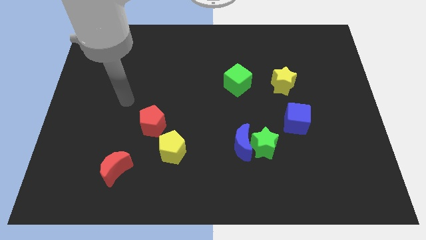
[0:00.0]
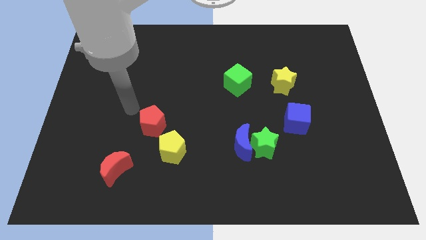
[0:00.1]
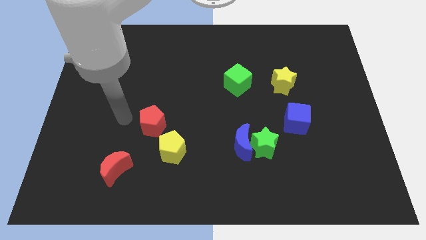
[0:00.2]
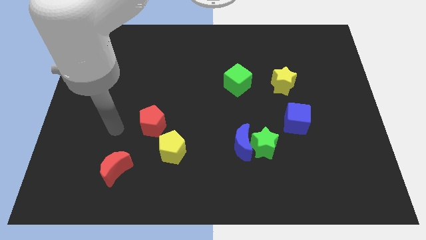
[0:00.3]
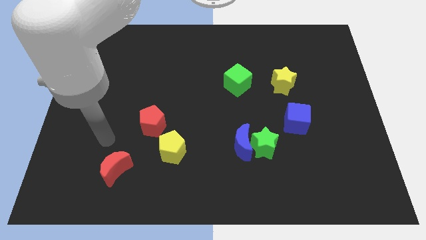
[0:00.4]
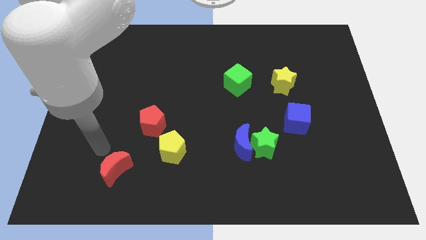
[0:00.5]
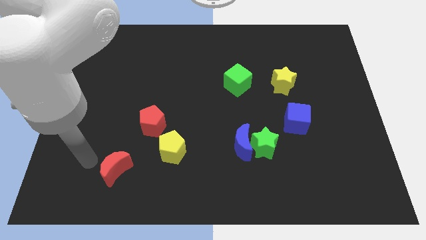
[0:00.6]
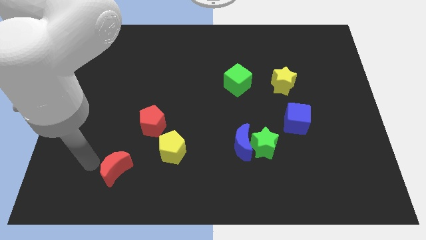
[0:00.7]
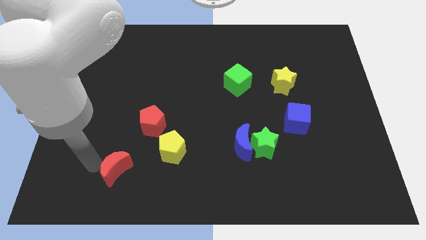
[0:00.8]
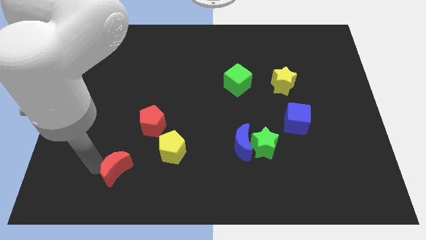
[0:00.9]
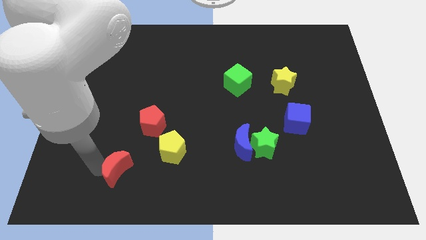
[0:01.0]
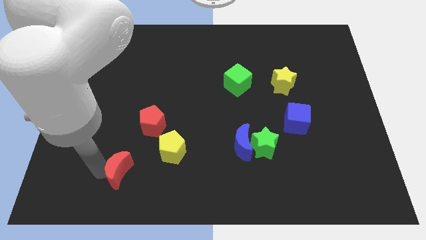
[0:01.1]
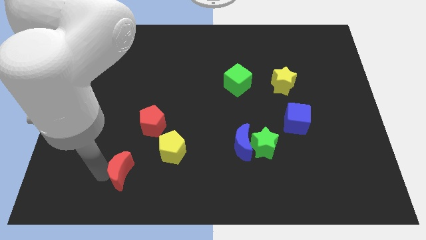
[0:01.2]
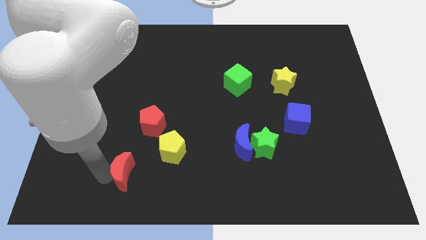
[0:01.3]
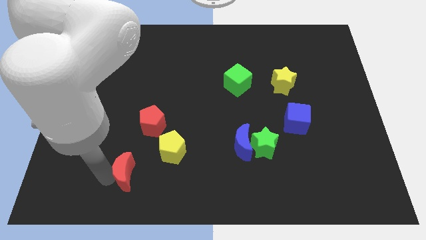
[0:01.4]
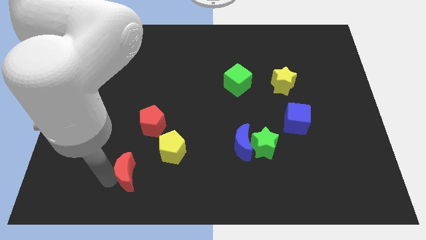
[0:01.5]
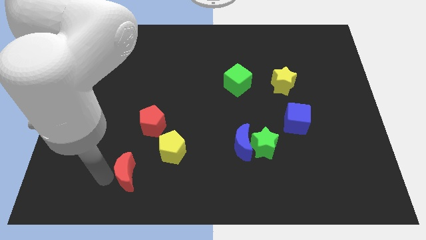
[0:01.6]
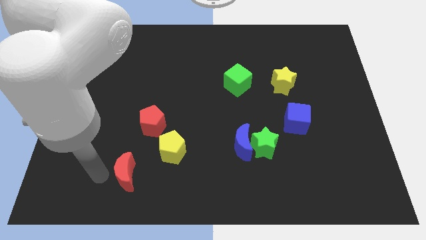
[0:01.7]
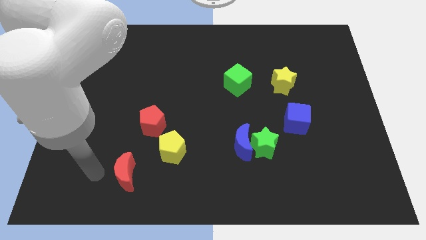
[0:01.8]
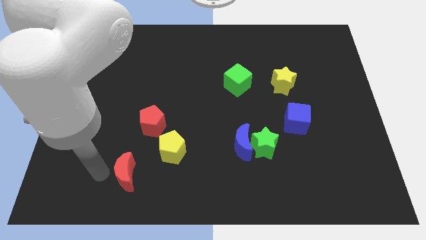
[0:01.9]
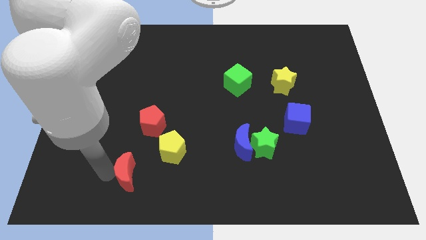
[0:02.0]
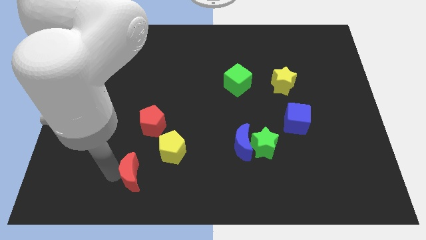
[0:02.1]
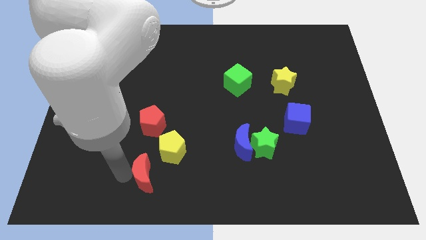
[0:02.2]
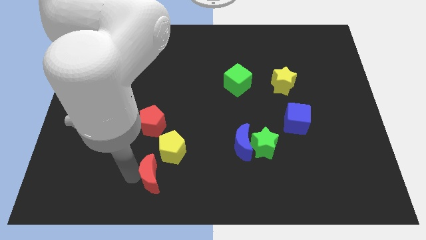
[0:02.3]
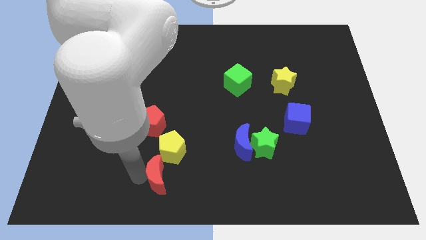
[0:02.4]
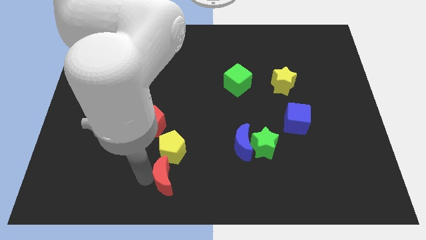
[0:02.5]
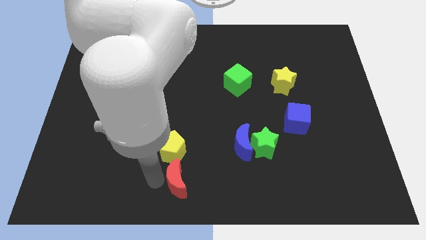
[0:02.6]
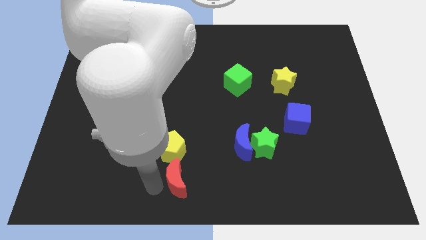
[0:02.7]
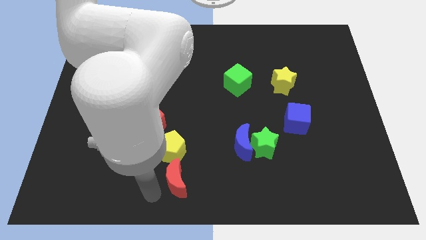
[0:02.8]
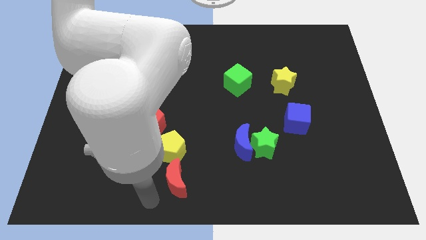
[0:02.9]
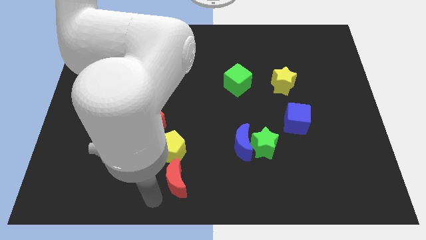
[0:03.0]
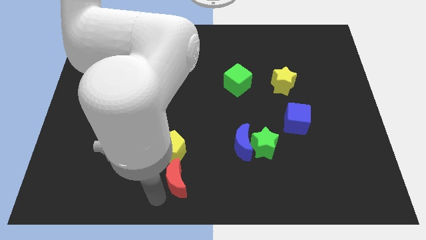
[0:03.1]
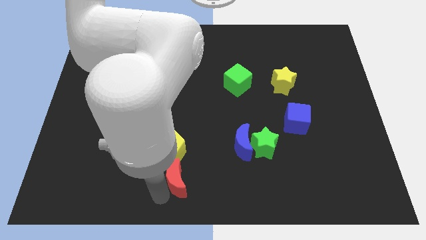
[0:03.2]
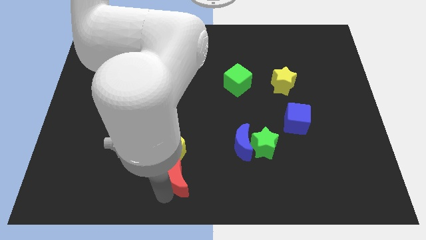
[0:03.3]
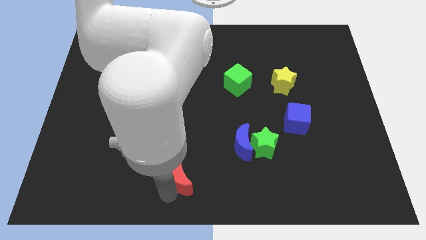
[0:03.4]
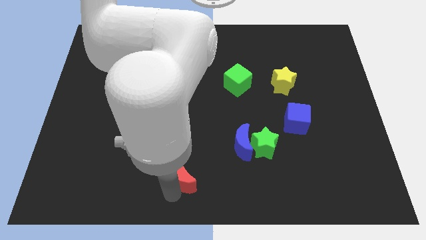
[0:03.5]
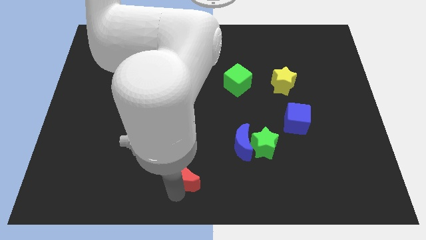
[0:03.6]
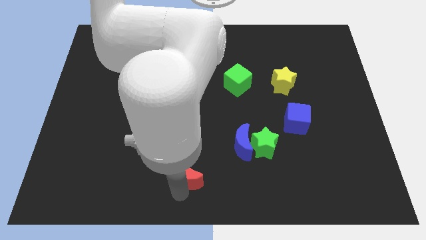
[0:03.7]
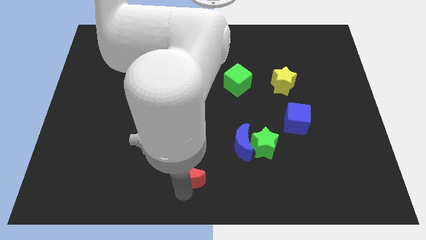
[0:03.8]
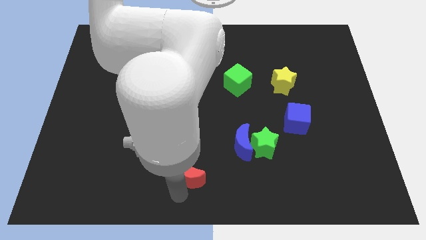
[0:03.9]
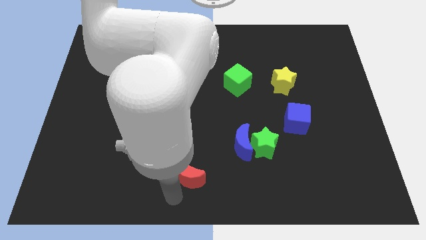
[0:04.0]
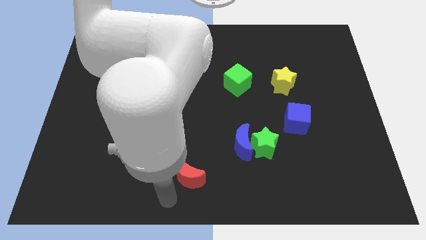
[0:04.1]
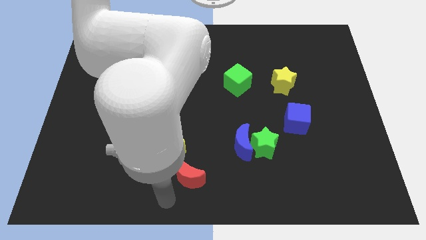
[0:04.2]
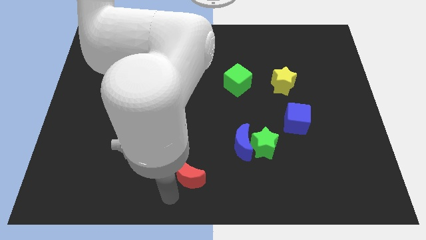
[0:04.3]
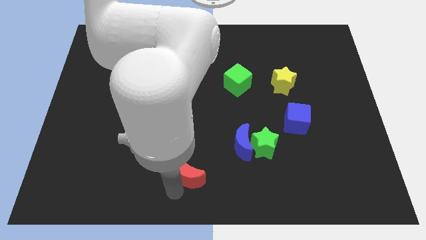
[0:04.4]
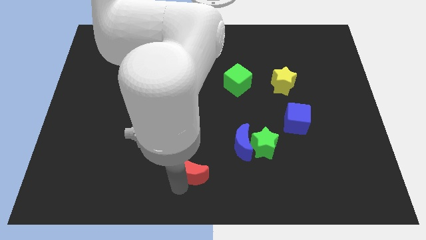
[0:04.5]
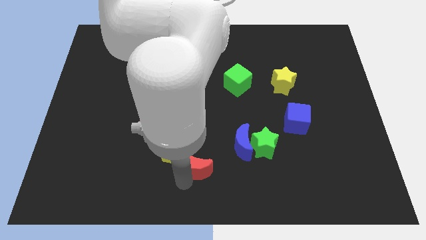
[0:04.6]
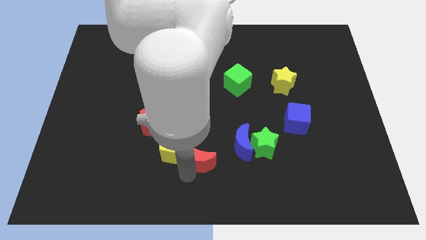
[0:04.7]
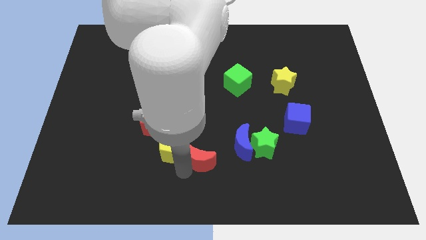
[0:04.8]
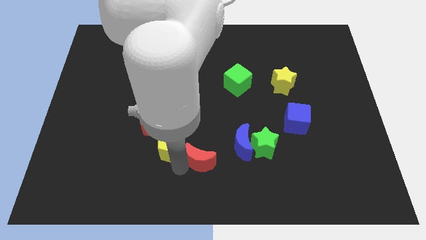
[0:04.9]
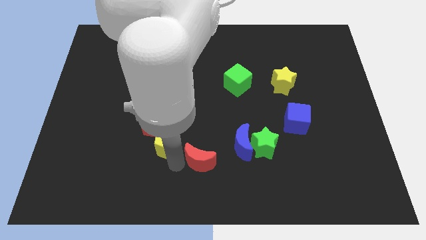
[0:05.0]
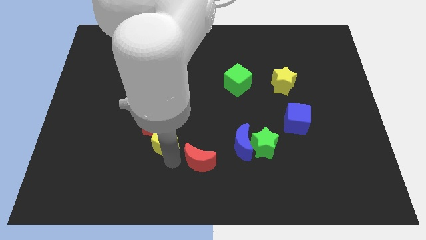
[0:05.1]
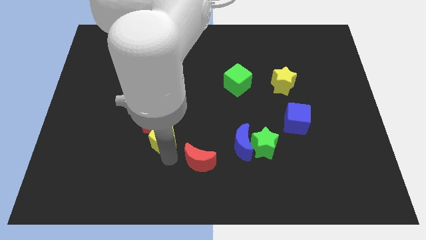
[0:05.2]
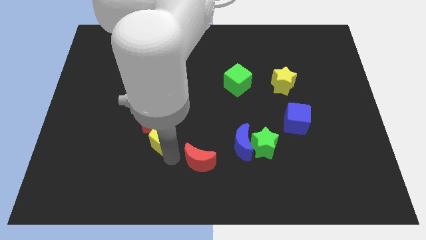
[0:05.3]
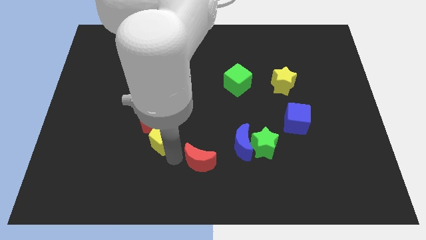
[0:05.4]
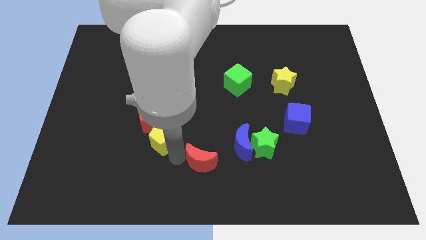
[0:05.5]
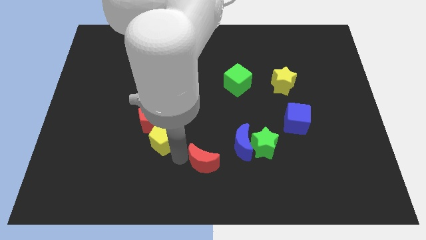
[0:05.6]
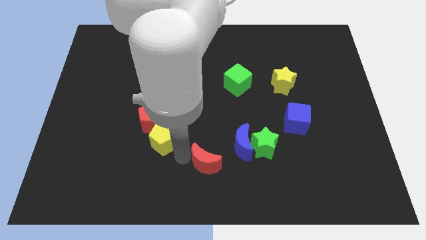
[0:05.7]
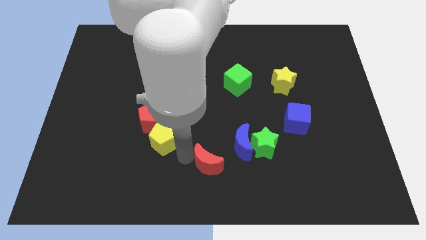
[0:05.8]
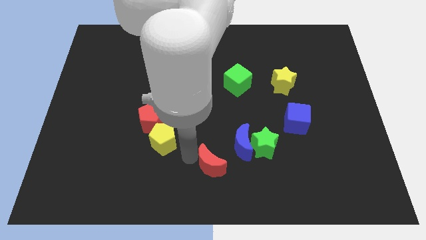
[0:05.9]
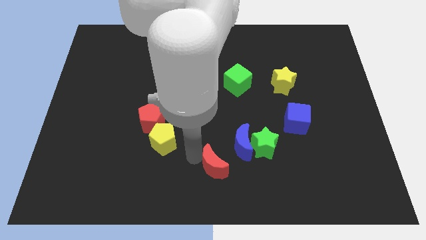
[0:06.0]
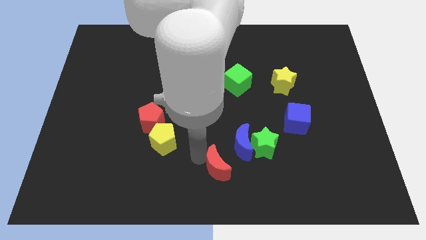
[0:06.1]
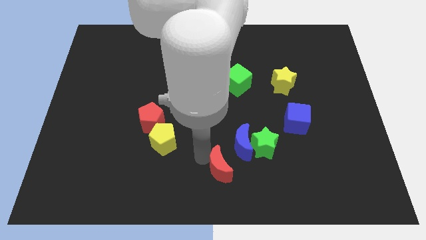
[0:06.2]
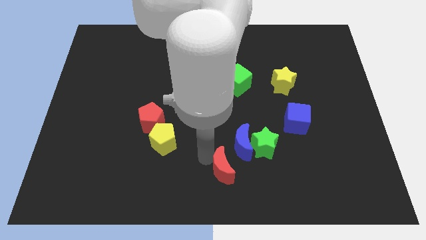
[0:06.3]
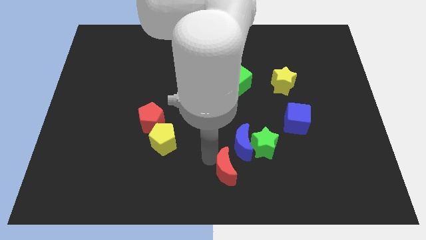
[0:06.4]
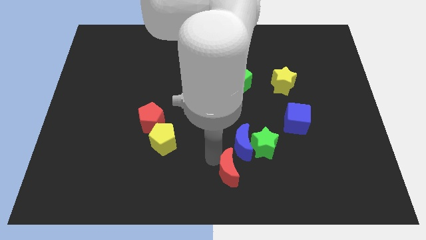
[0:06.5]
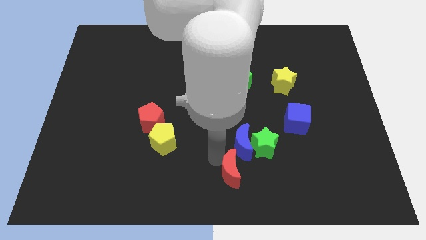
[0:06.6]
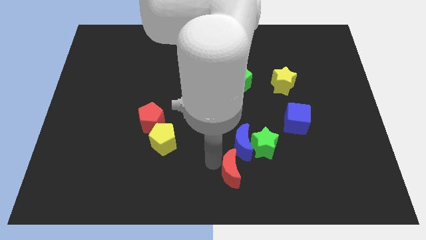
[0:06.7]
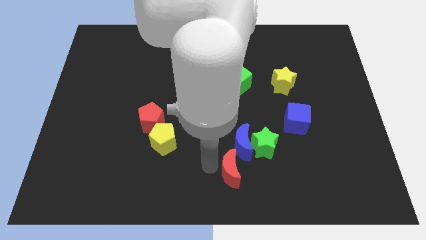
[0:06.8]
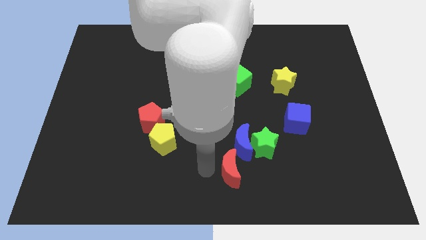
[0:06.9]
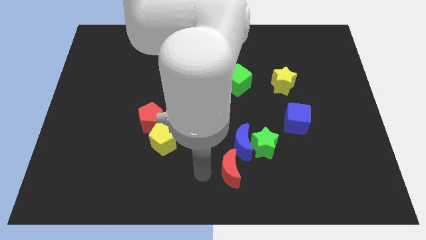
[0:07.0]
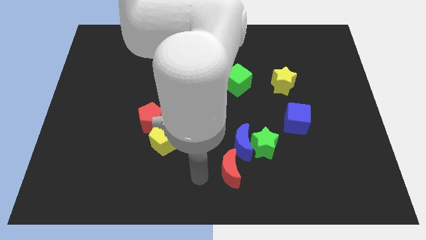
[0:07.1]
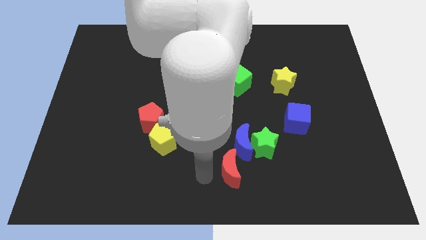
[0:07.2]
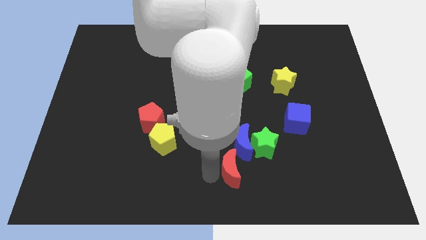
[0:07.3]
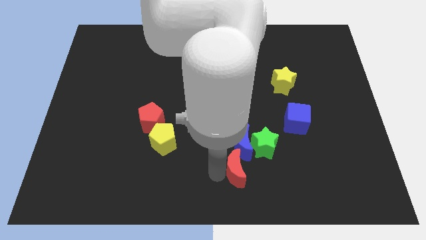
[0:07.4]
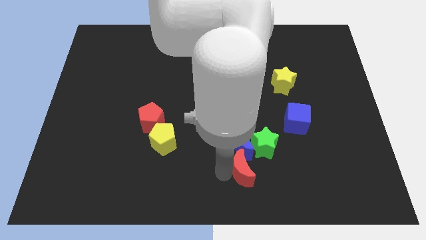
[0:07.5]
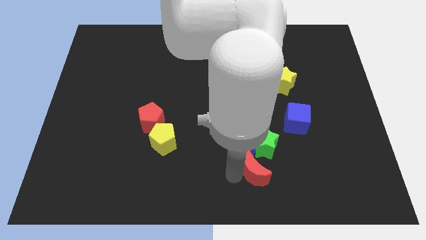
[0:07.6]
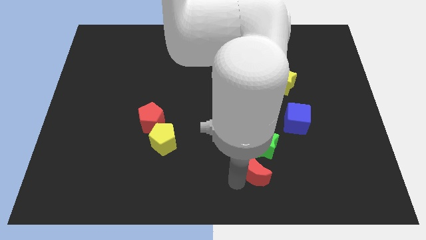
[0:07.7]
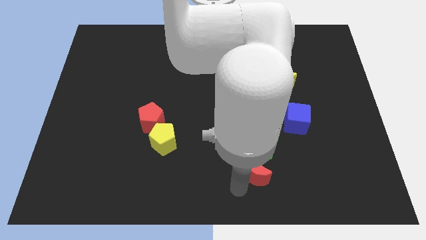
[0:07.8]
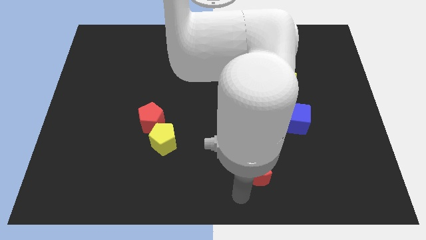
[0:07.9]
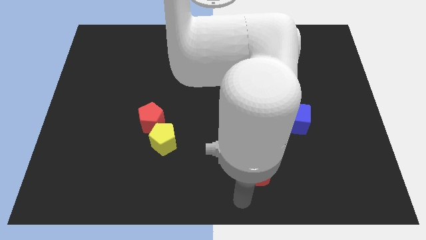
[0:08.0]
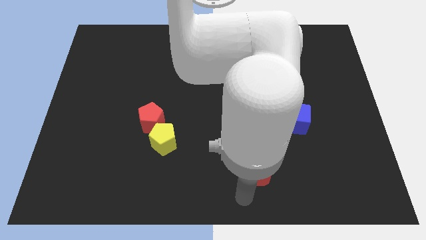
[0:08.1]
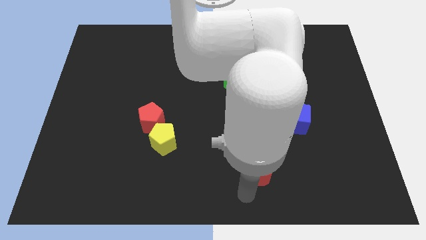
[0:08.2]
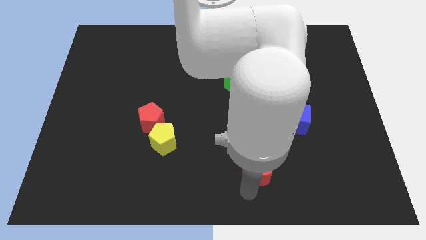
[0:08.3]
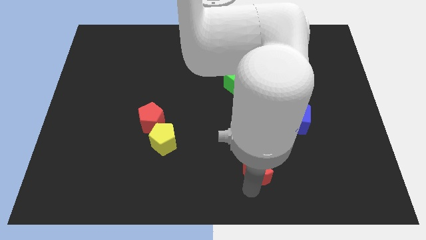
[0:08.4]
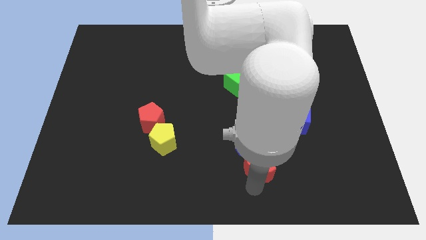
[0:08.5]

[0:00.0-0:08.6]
push the red moon close to the green star
